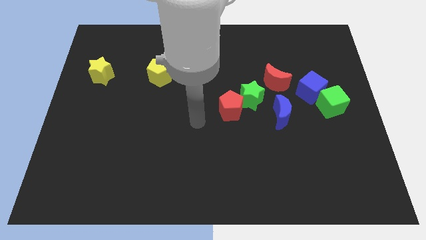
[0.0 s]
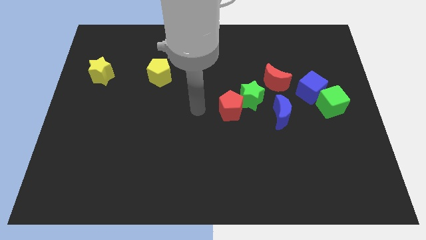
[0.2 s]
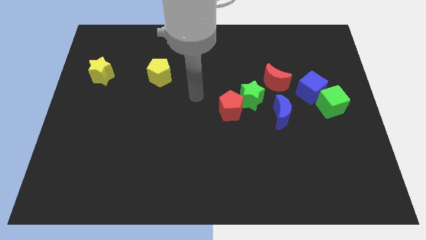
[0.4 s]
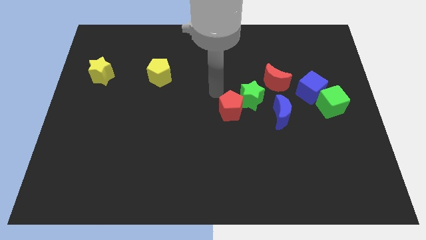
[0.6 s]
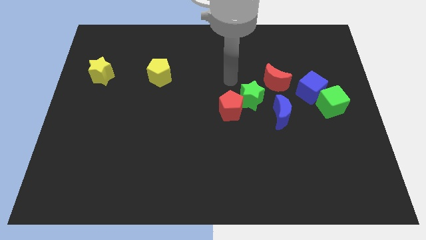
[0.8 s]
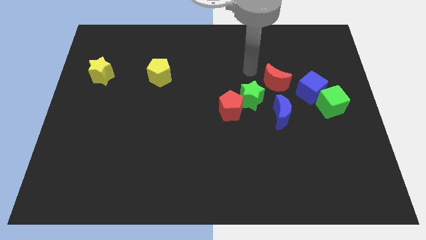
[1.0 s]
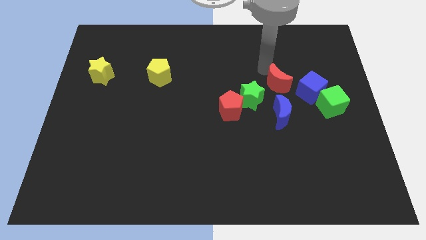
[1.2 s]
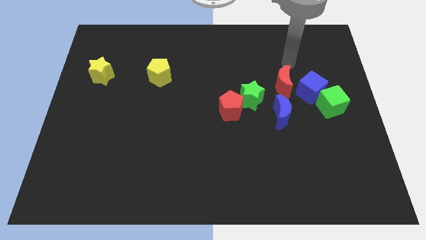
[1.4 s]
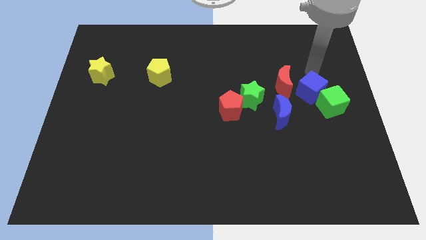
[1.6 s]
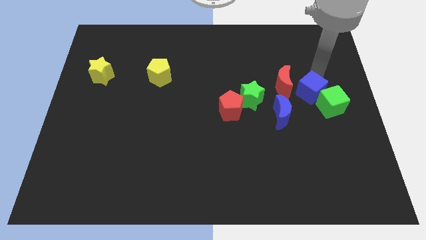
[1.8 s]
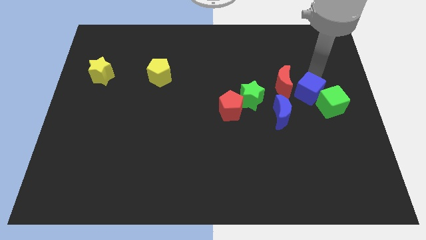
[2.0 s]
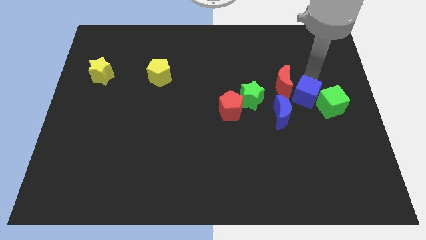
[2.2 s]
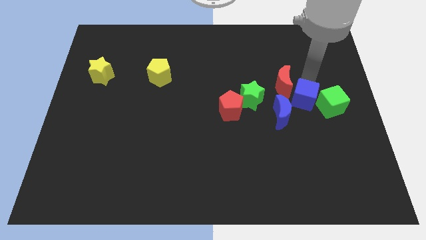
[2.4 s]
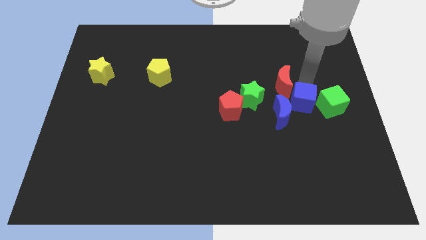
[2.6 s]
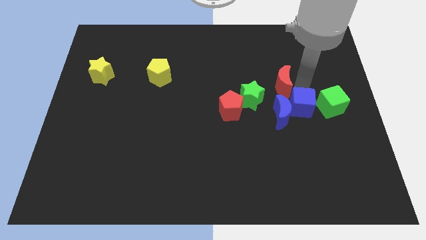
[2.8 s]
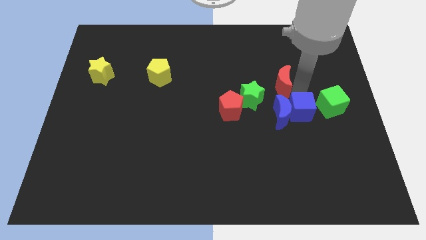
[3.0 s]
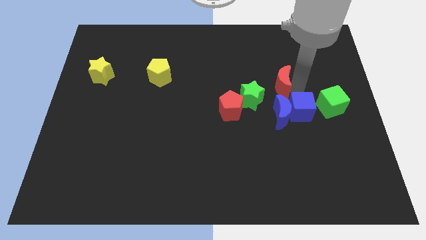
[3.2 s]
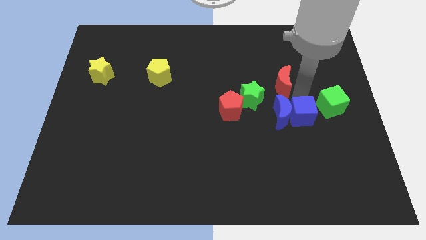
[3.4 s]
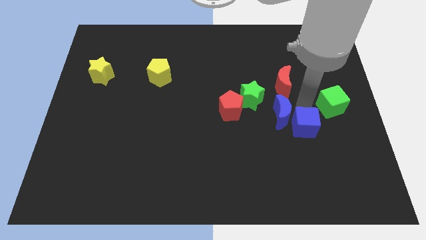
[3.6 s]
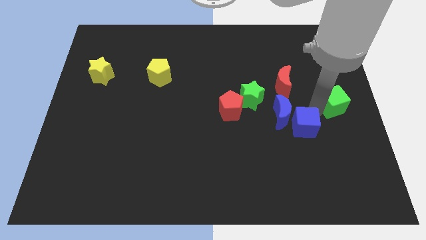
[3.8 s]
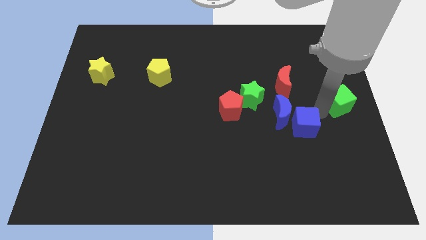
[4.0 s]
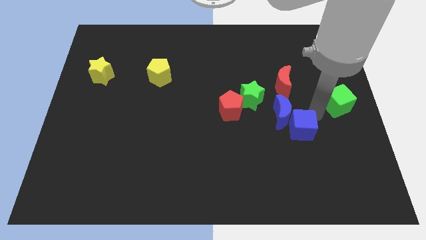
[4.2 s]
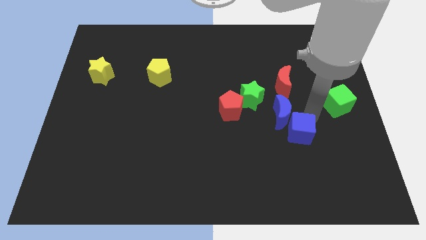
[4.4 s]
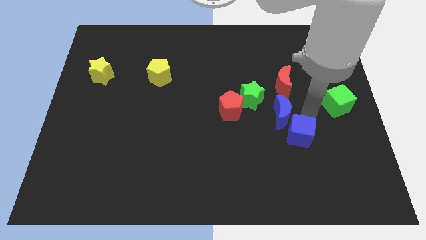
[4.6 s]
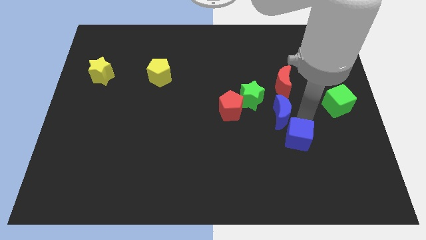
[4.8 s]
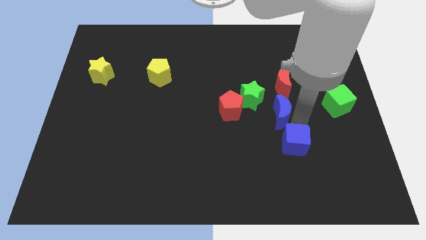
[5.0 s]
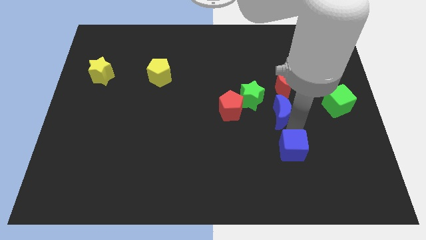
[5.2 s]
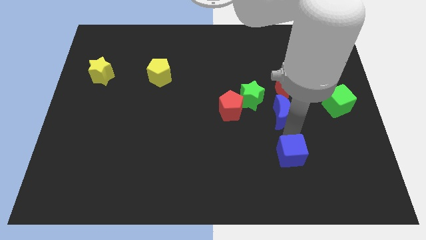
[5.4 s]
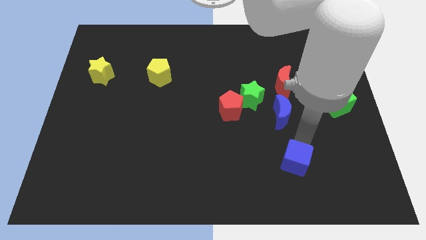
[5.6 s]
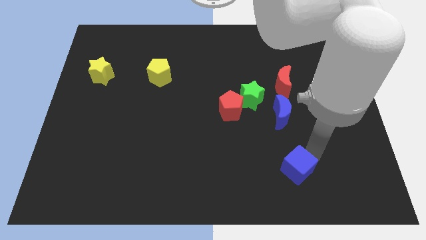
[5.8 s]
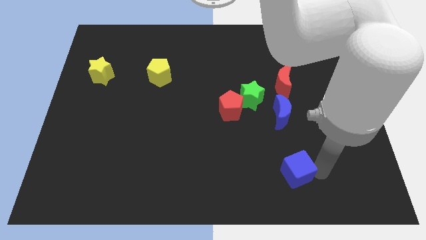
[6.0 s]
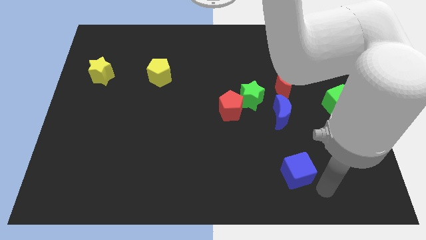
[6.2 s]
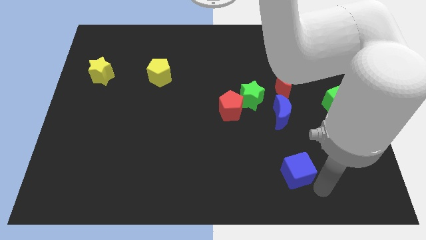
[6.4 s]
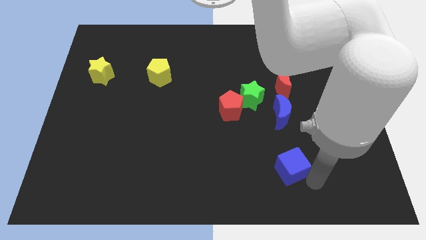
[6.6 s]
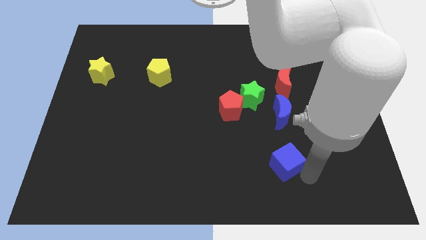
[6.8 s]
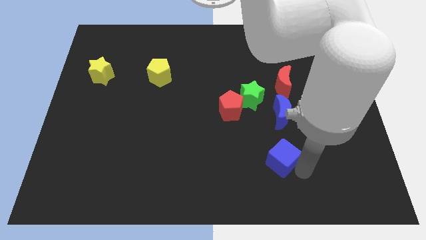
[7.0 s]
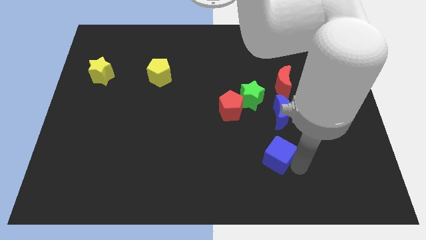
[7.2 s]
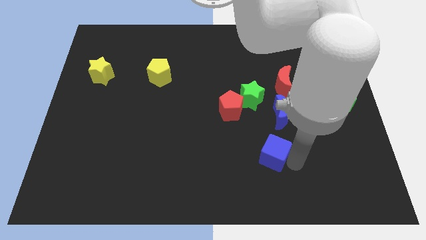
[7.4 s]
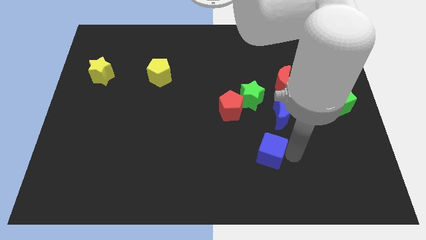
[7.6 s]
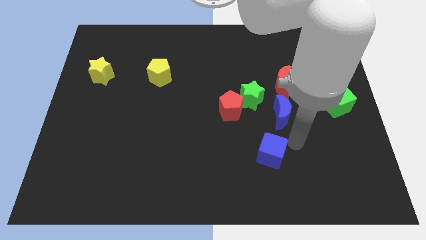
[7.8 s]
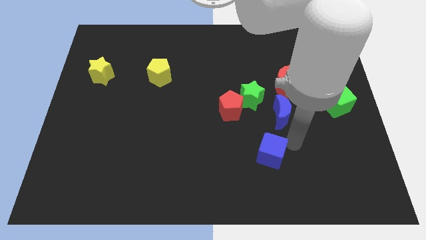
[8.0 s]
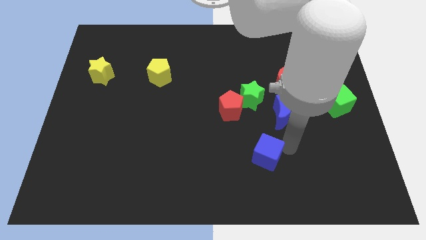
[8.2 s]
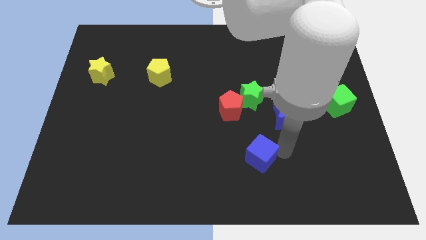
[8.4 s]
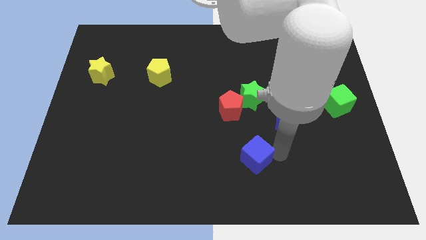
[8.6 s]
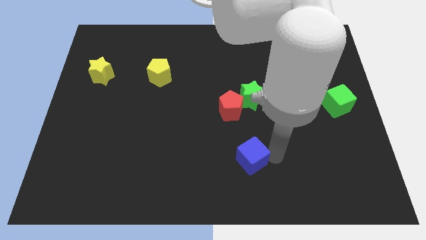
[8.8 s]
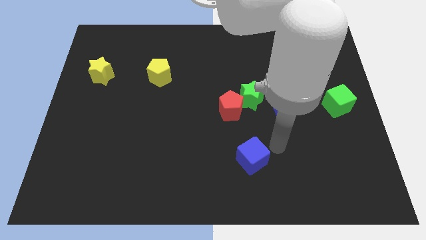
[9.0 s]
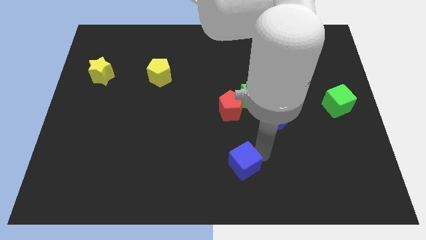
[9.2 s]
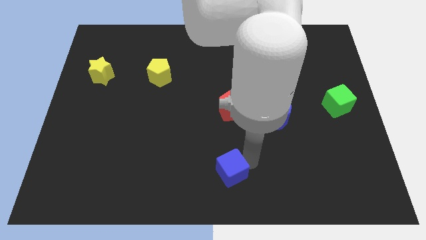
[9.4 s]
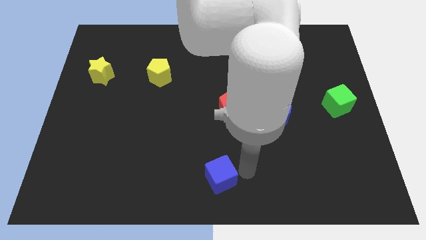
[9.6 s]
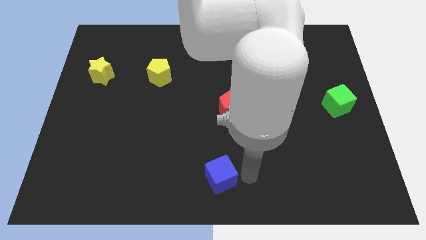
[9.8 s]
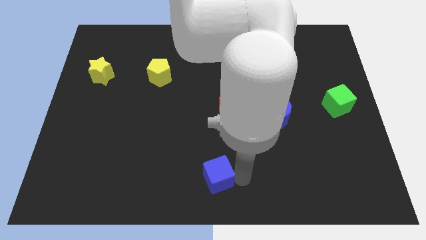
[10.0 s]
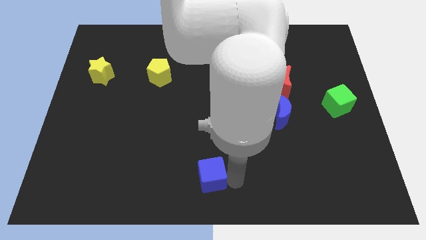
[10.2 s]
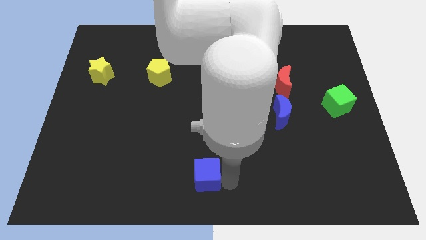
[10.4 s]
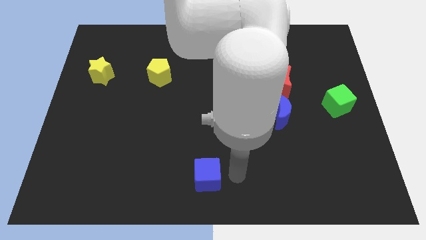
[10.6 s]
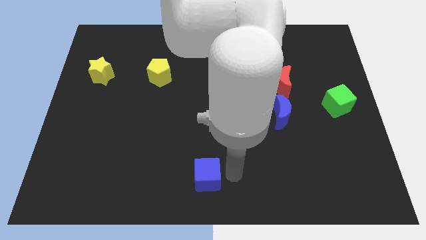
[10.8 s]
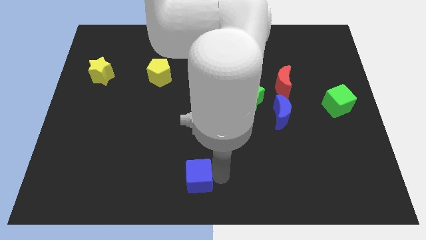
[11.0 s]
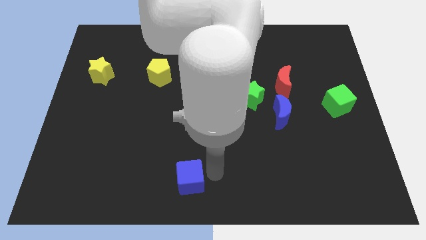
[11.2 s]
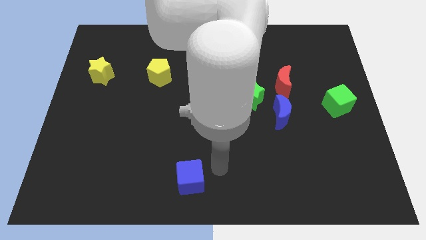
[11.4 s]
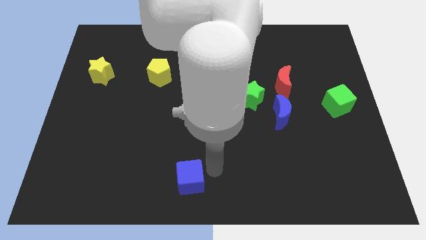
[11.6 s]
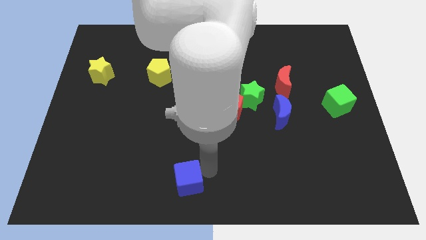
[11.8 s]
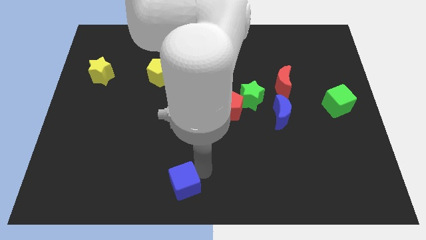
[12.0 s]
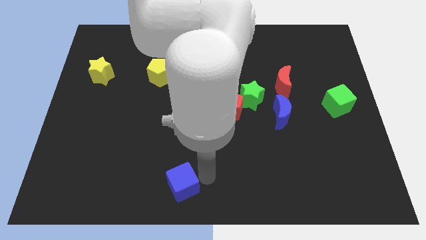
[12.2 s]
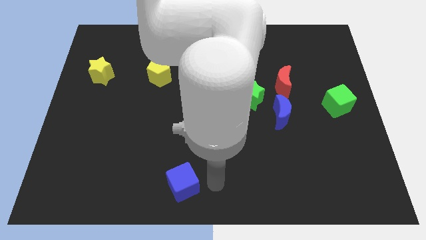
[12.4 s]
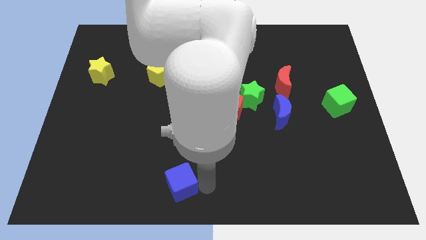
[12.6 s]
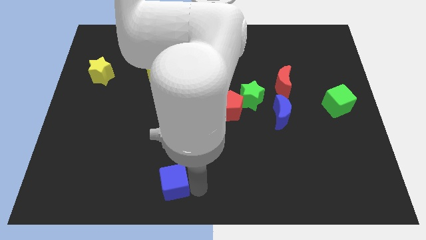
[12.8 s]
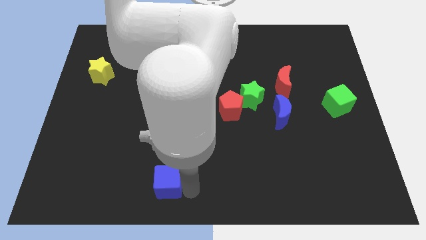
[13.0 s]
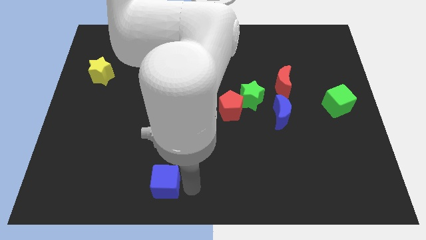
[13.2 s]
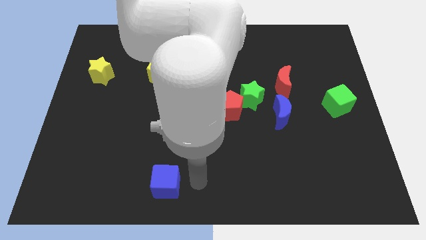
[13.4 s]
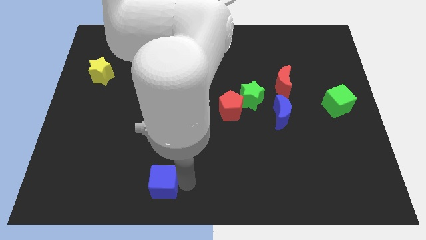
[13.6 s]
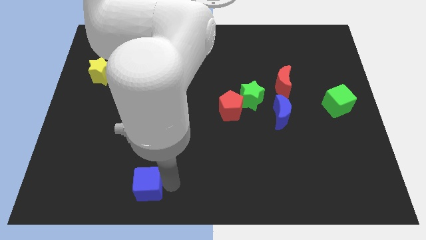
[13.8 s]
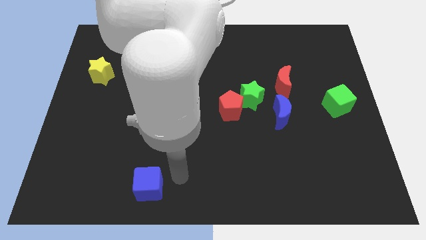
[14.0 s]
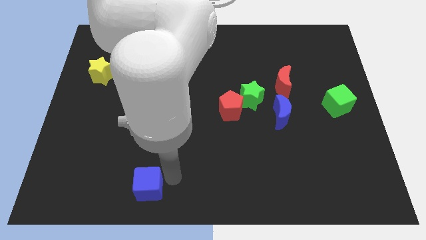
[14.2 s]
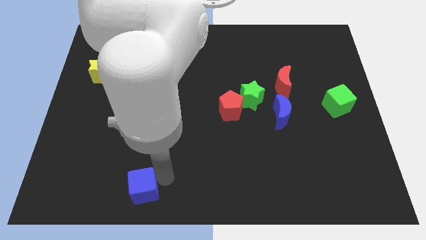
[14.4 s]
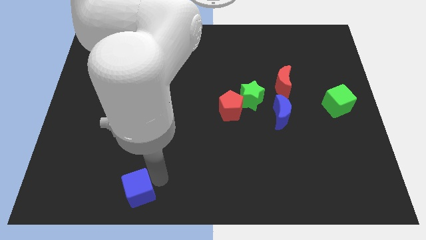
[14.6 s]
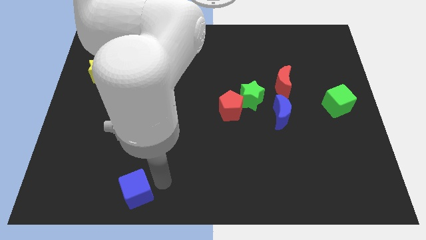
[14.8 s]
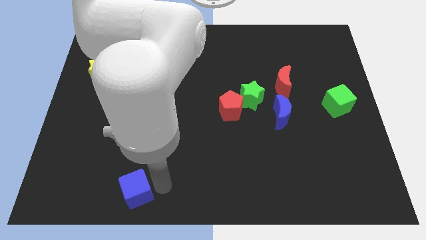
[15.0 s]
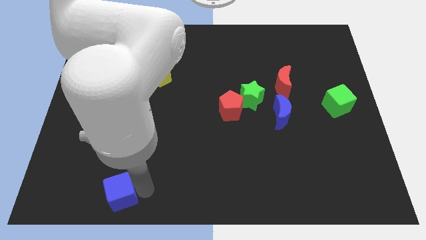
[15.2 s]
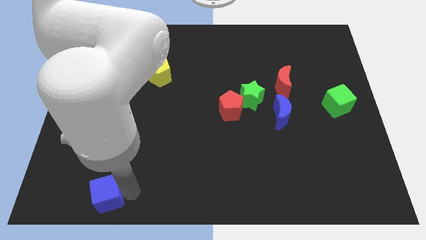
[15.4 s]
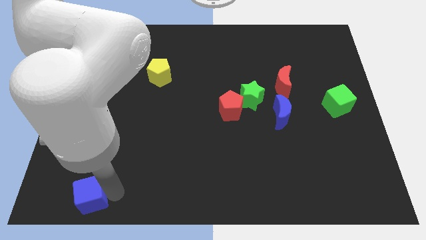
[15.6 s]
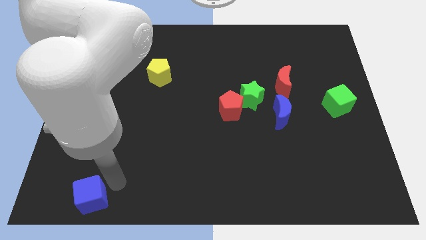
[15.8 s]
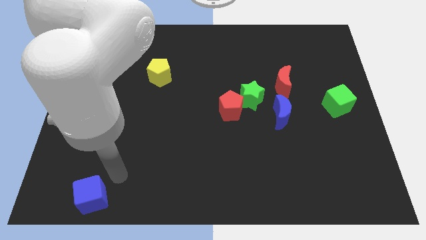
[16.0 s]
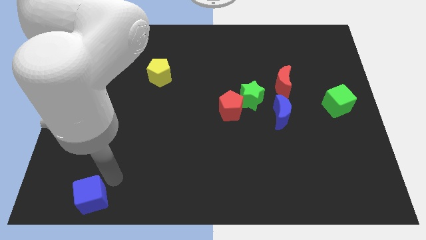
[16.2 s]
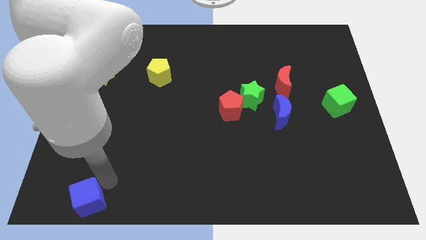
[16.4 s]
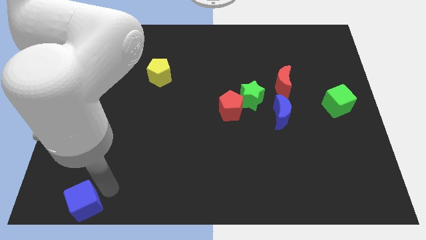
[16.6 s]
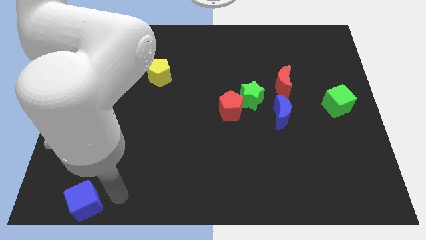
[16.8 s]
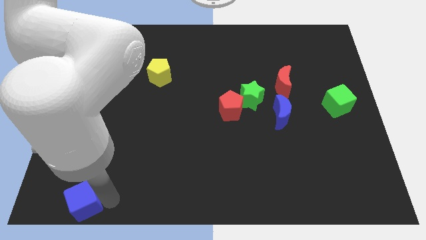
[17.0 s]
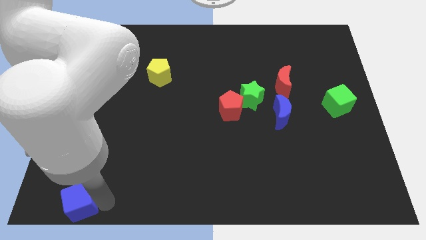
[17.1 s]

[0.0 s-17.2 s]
put the blue cube to the lower left corner
